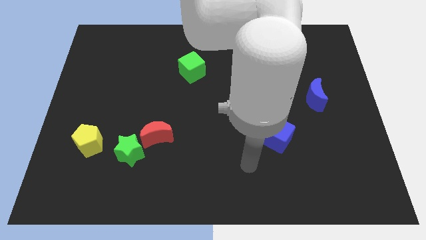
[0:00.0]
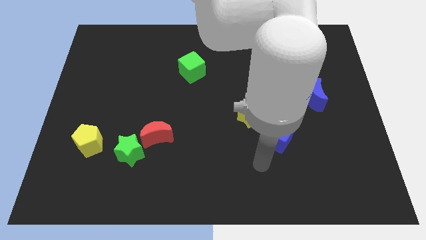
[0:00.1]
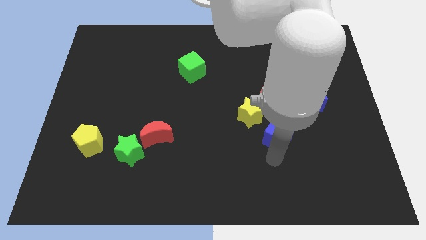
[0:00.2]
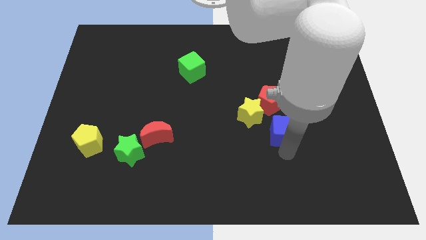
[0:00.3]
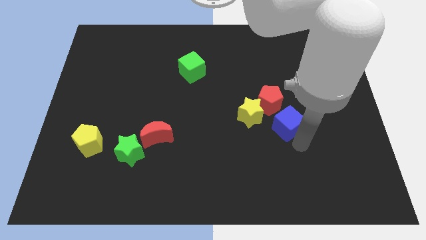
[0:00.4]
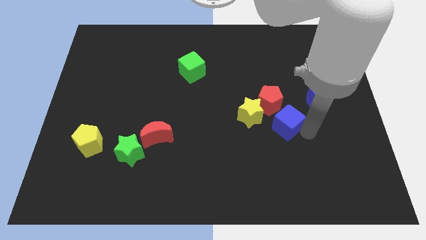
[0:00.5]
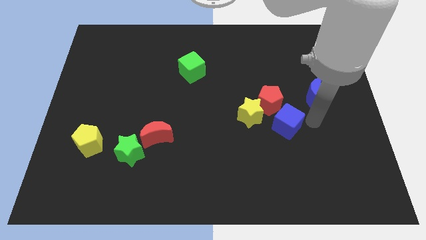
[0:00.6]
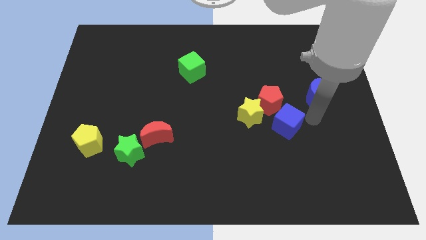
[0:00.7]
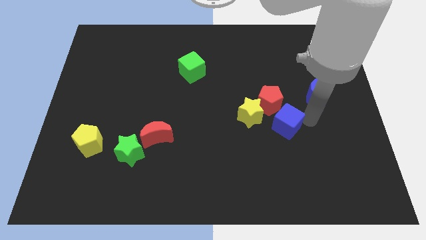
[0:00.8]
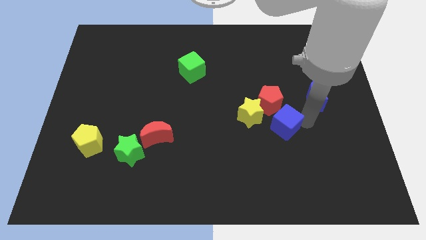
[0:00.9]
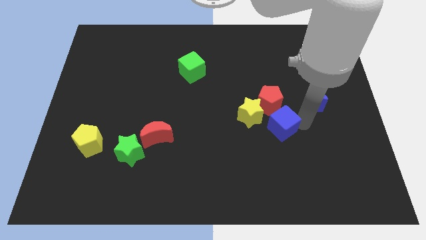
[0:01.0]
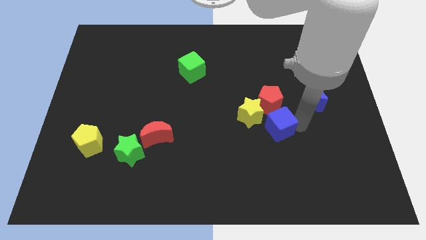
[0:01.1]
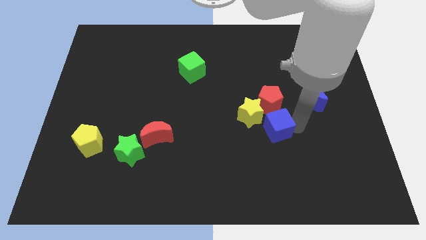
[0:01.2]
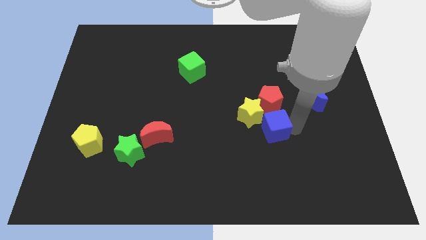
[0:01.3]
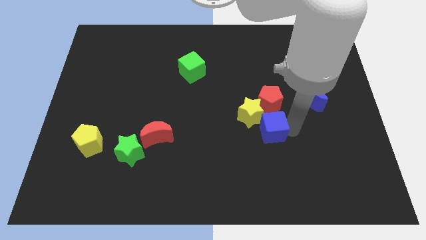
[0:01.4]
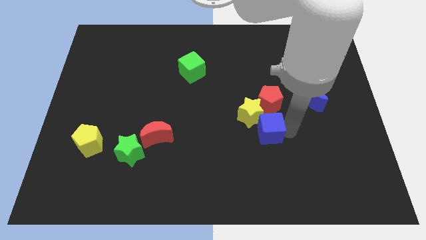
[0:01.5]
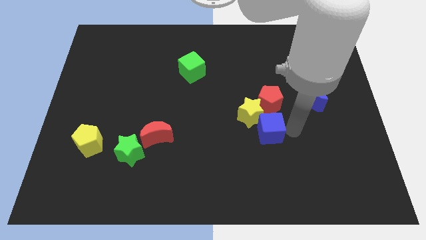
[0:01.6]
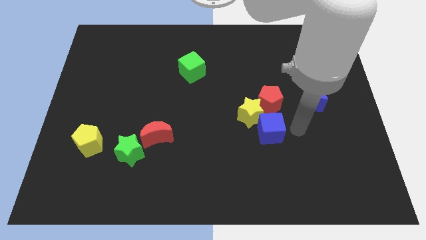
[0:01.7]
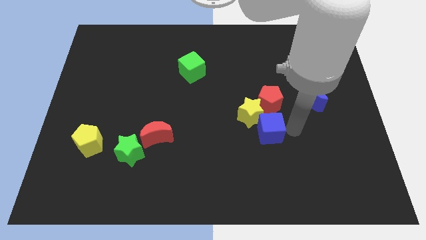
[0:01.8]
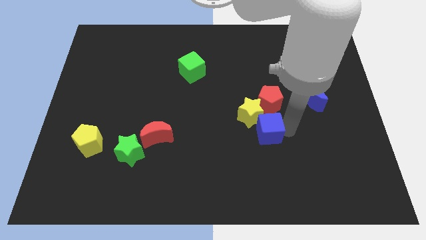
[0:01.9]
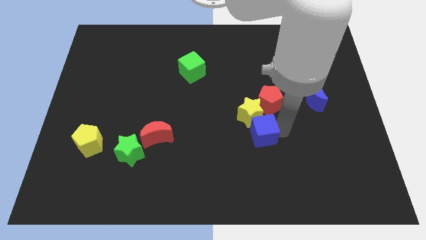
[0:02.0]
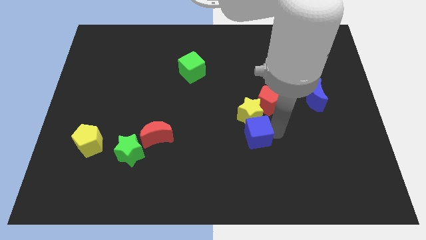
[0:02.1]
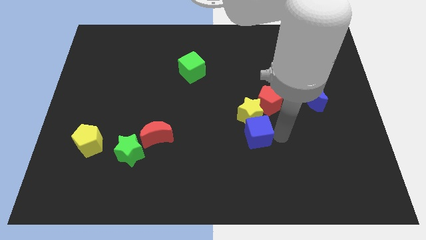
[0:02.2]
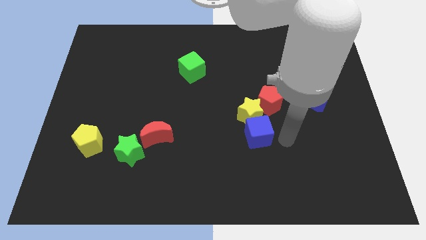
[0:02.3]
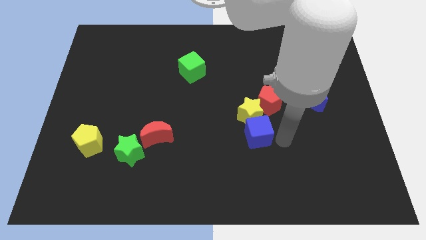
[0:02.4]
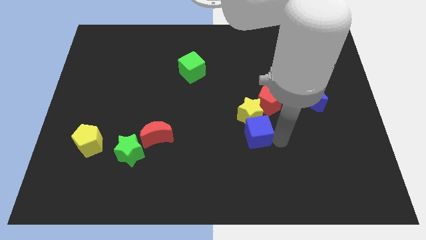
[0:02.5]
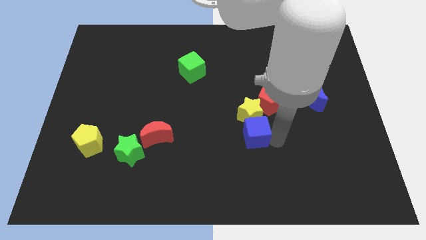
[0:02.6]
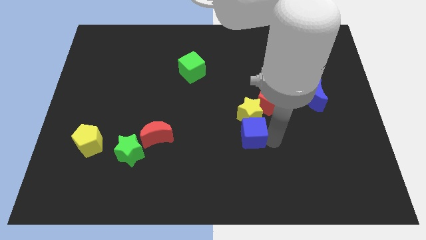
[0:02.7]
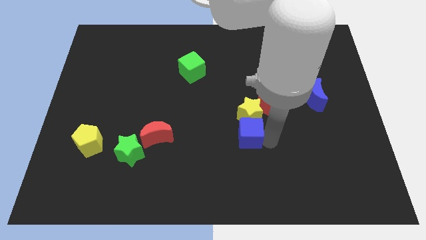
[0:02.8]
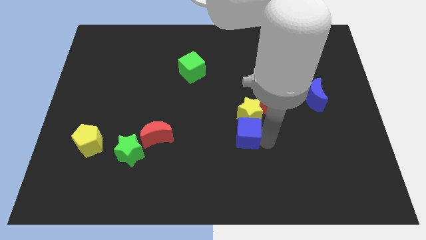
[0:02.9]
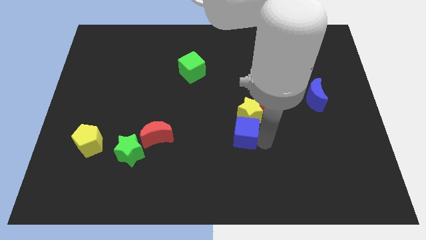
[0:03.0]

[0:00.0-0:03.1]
slightly slide the blue cube to the left

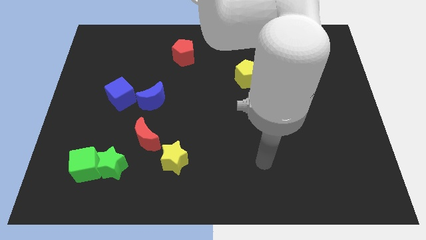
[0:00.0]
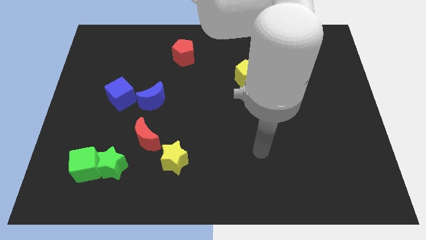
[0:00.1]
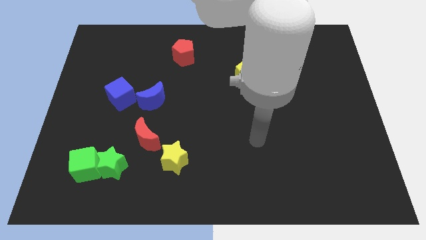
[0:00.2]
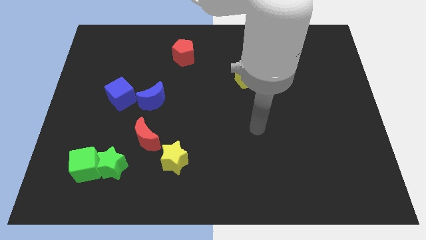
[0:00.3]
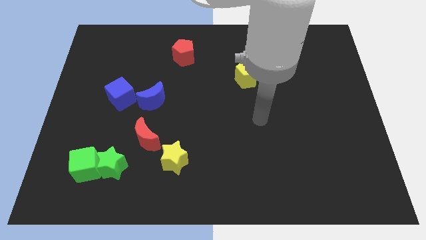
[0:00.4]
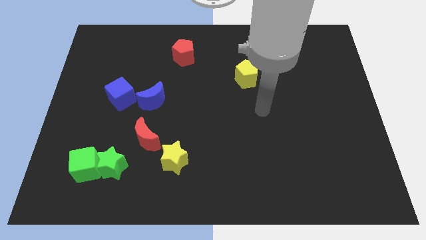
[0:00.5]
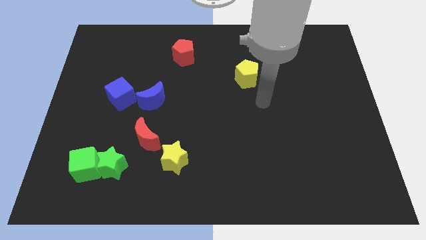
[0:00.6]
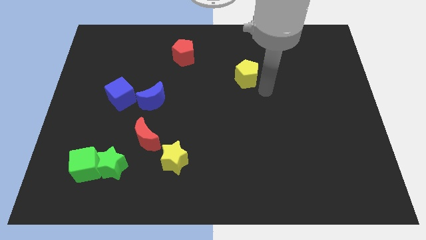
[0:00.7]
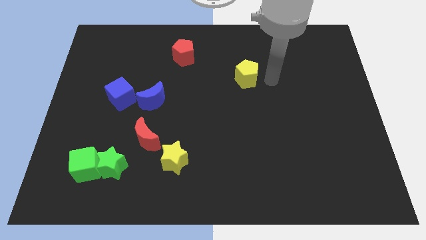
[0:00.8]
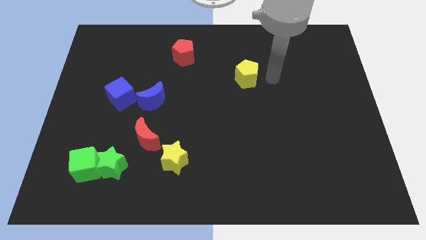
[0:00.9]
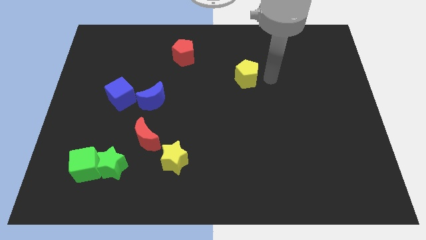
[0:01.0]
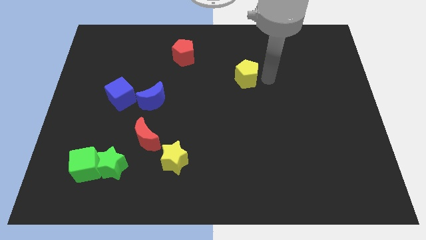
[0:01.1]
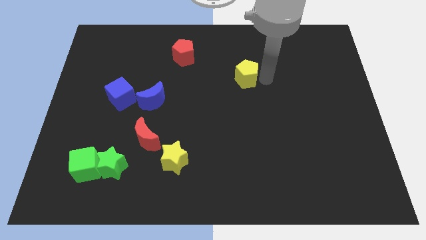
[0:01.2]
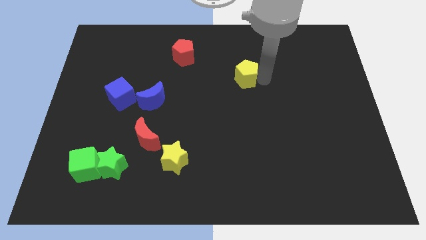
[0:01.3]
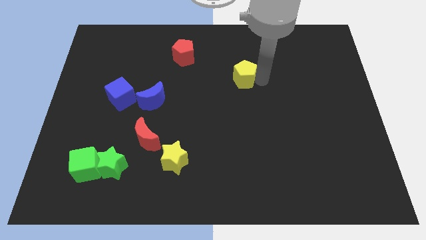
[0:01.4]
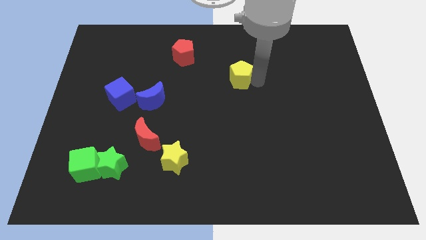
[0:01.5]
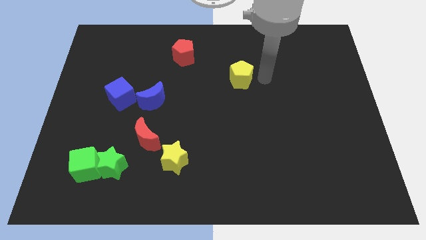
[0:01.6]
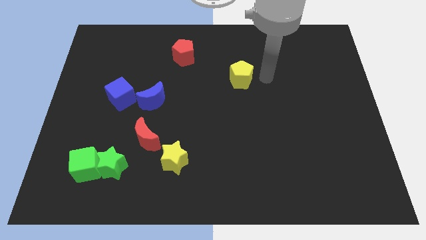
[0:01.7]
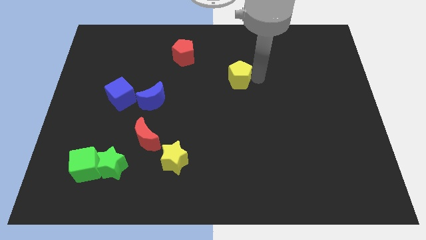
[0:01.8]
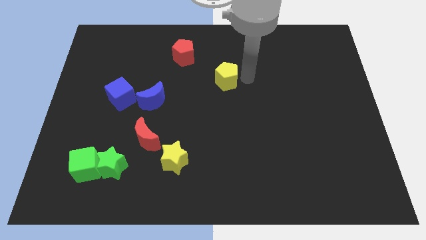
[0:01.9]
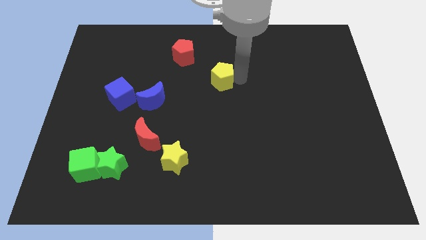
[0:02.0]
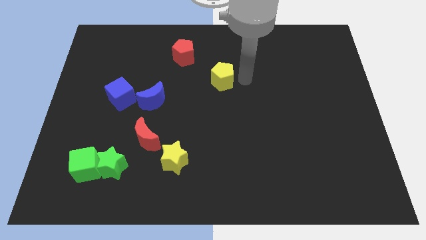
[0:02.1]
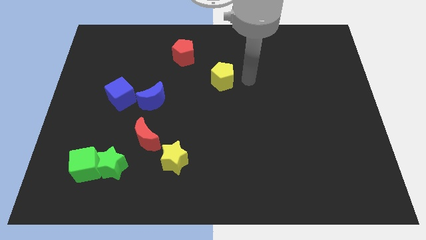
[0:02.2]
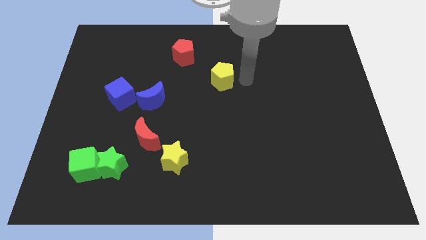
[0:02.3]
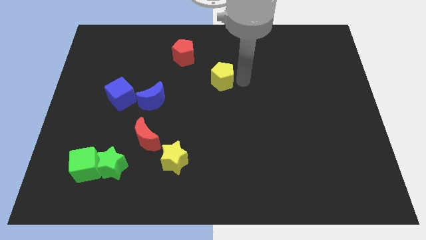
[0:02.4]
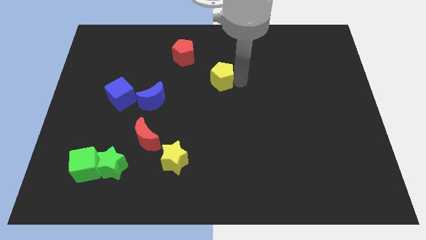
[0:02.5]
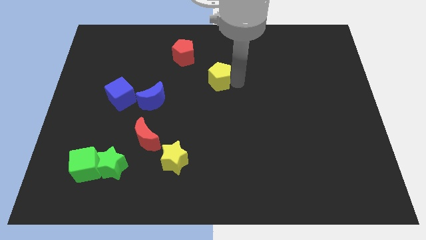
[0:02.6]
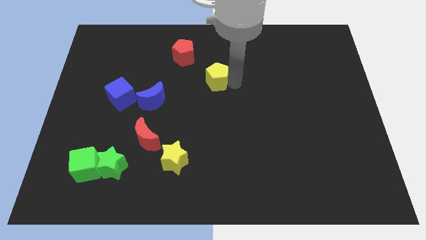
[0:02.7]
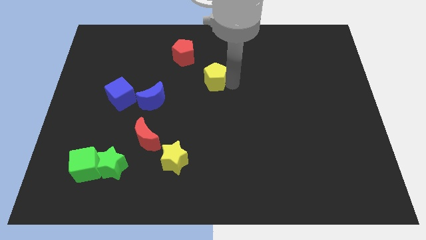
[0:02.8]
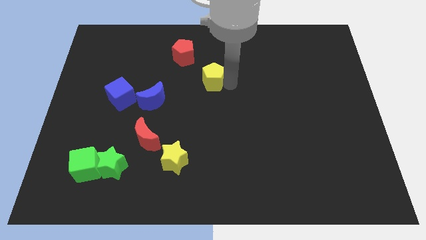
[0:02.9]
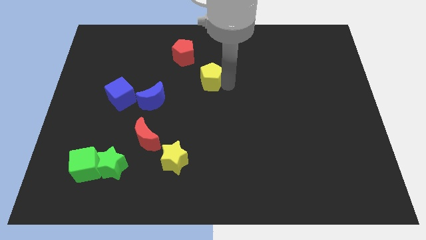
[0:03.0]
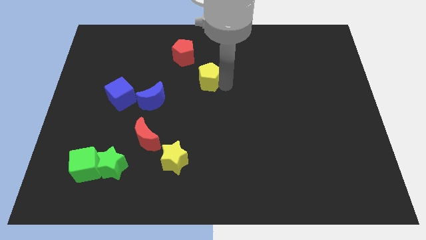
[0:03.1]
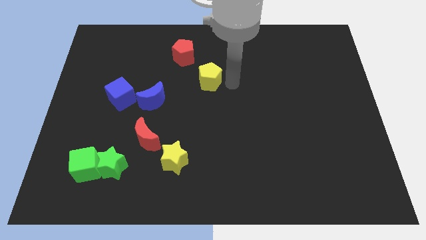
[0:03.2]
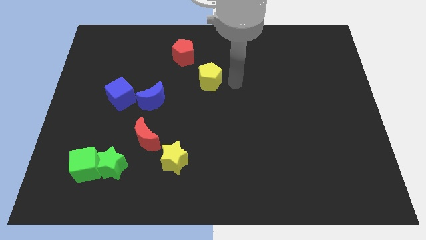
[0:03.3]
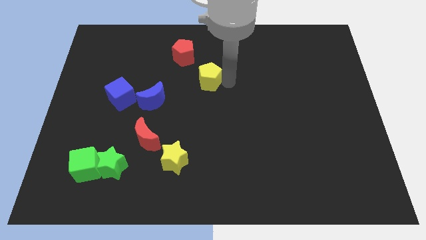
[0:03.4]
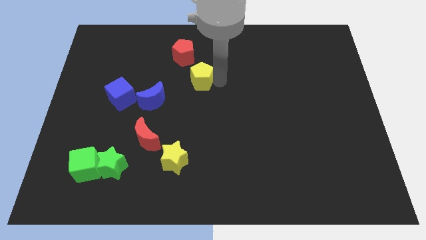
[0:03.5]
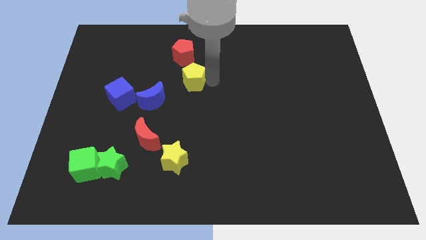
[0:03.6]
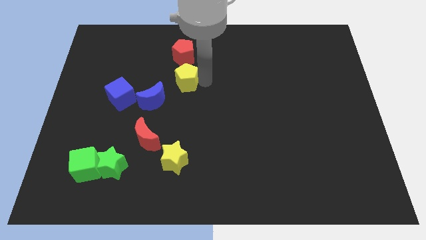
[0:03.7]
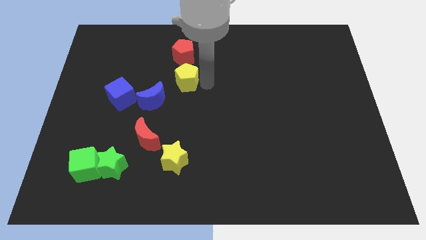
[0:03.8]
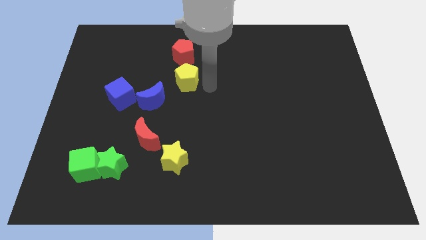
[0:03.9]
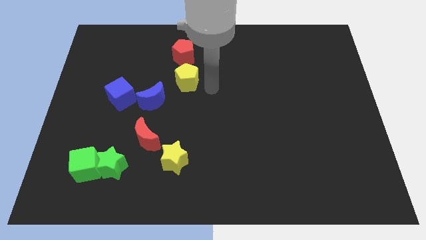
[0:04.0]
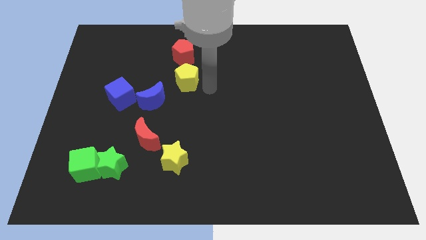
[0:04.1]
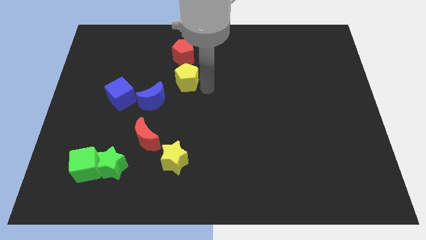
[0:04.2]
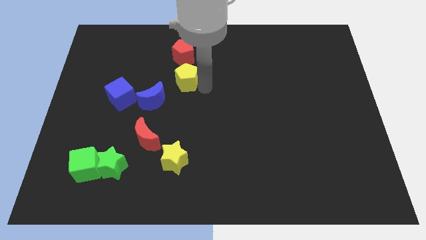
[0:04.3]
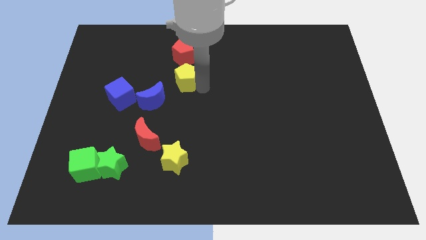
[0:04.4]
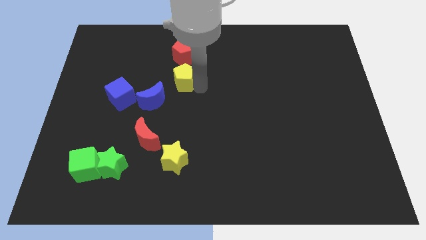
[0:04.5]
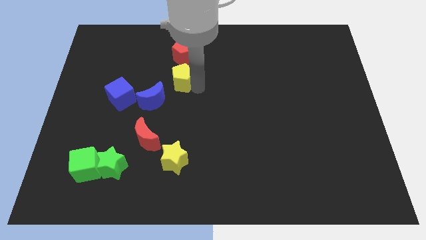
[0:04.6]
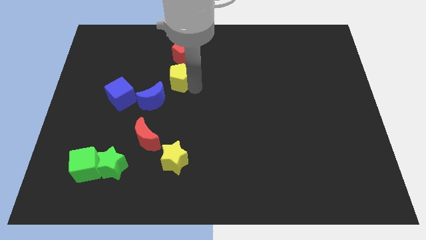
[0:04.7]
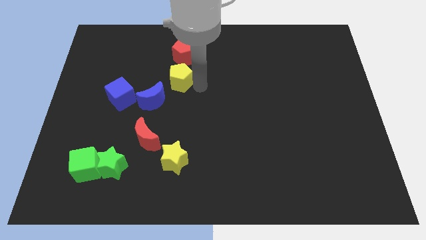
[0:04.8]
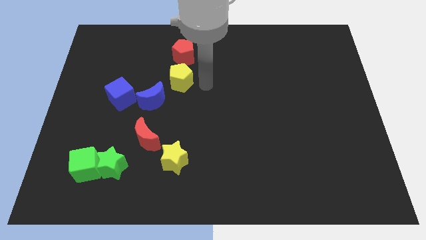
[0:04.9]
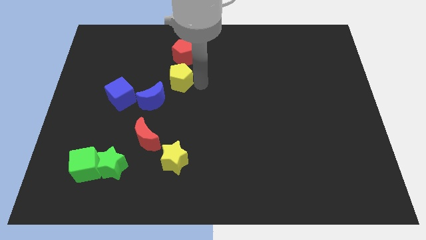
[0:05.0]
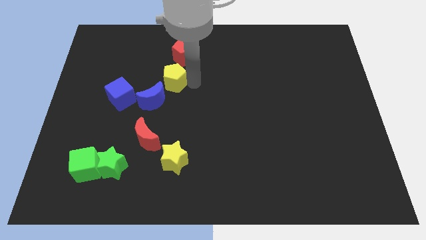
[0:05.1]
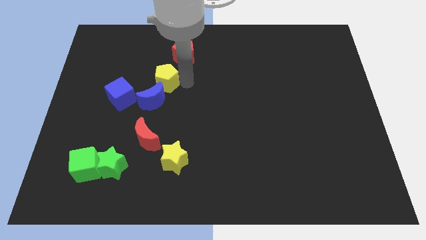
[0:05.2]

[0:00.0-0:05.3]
move the yellow pentagon to the left
